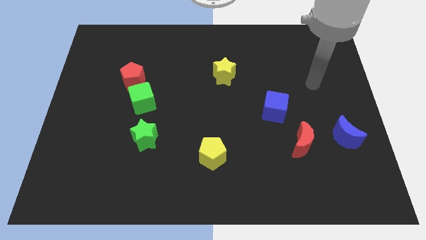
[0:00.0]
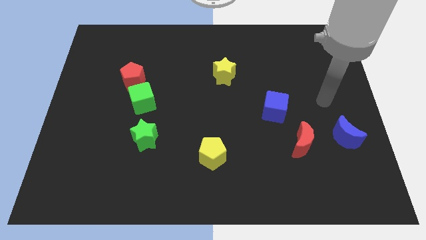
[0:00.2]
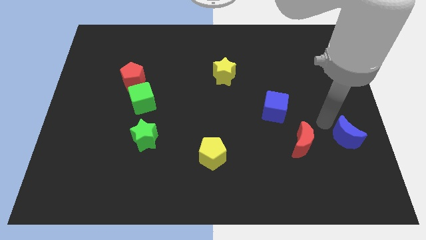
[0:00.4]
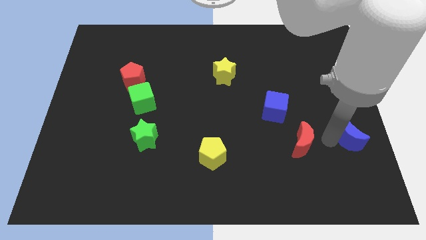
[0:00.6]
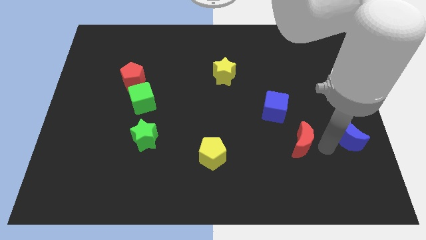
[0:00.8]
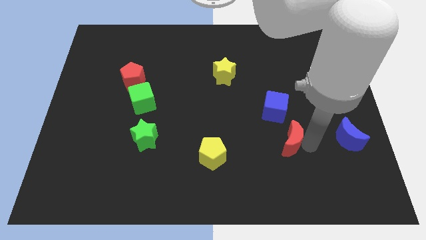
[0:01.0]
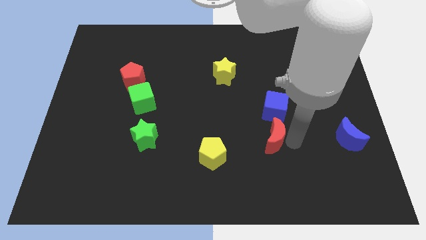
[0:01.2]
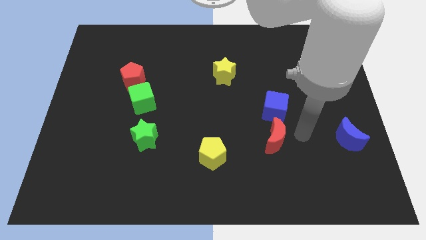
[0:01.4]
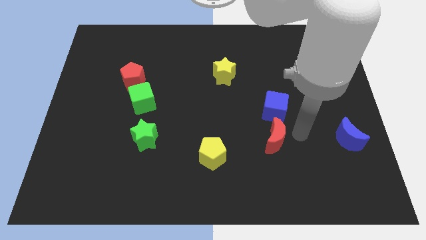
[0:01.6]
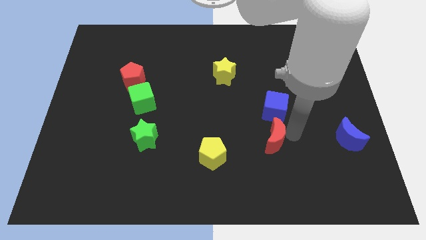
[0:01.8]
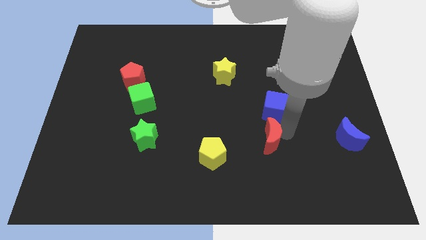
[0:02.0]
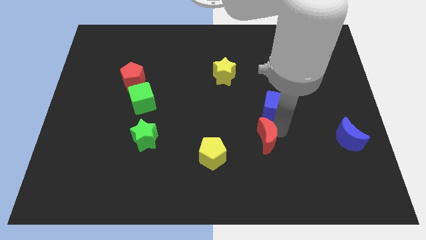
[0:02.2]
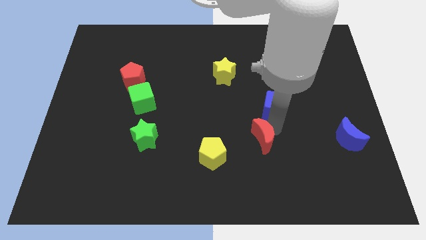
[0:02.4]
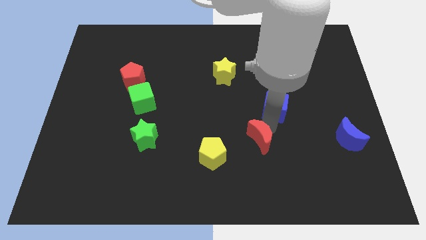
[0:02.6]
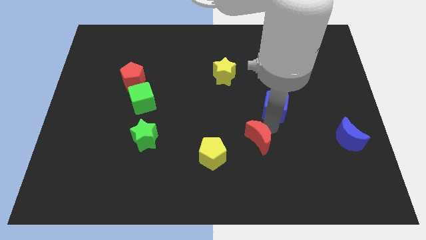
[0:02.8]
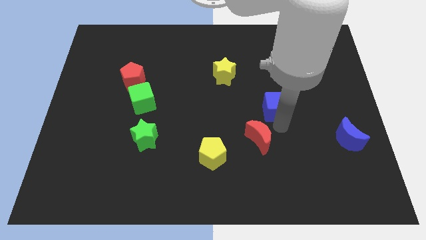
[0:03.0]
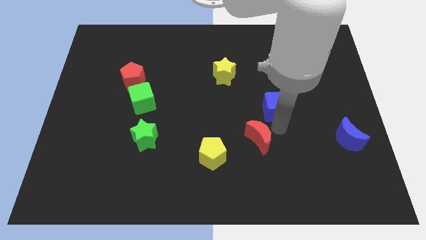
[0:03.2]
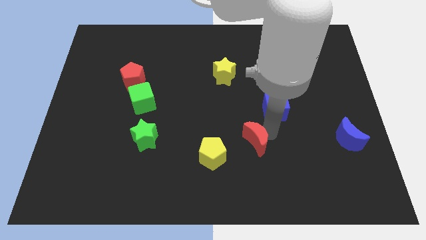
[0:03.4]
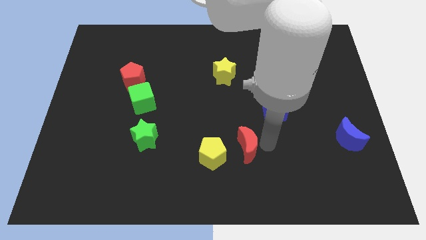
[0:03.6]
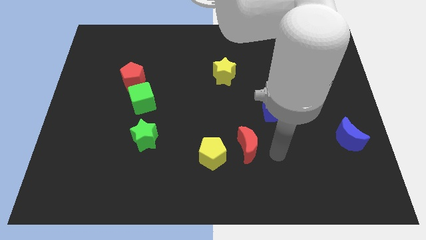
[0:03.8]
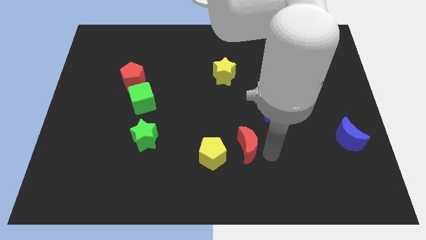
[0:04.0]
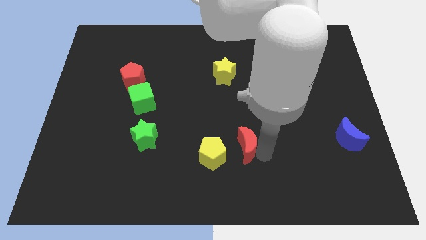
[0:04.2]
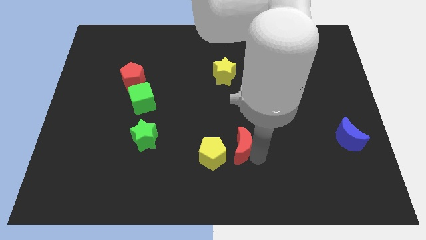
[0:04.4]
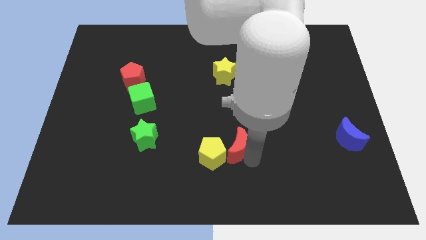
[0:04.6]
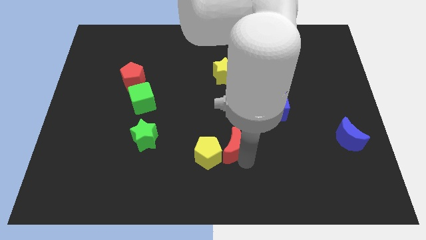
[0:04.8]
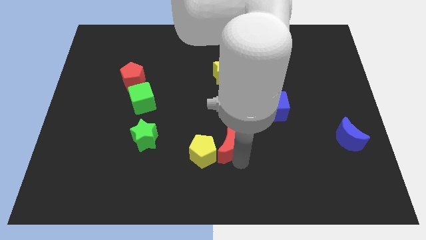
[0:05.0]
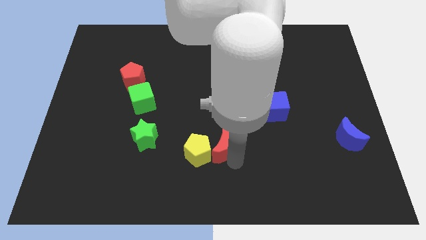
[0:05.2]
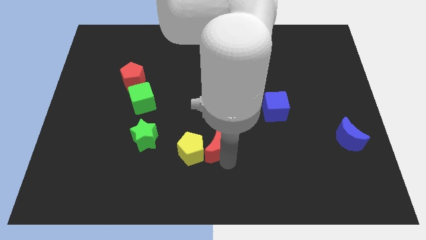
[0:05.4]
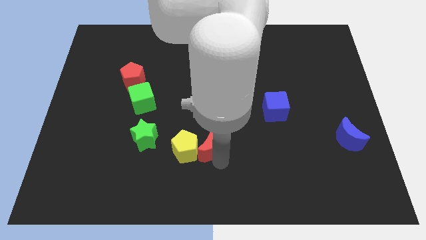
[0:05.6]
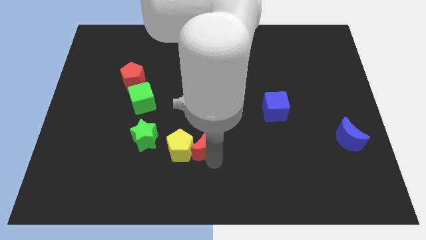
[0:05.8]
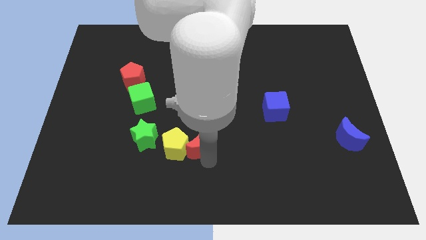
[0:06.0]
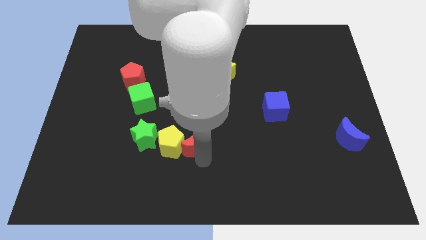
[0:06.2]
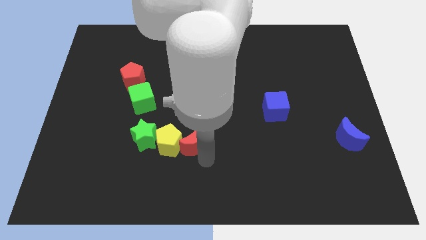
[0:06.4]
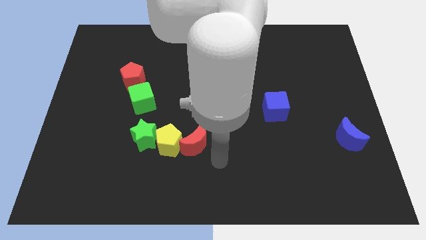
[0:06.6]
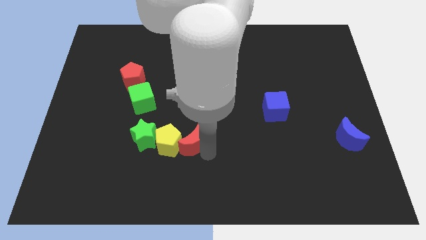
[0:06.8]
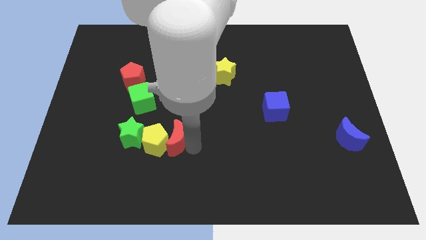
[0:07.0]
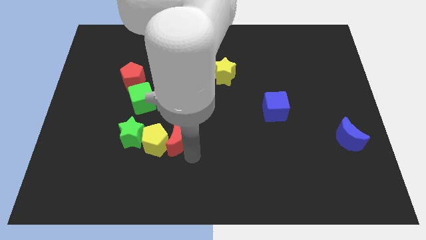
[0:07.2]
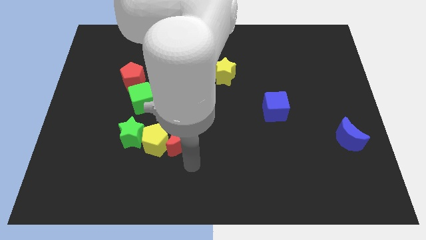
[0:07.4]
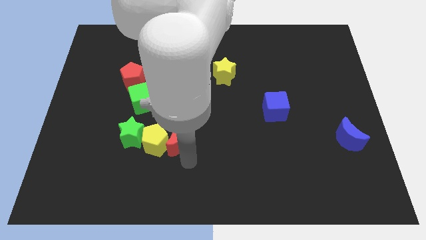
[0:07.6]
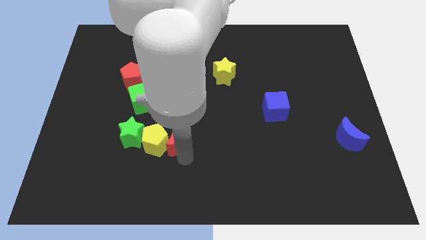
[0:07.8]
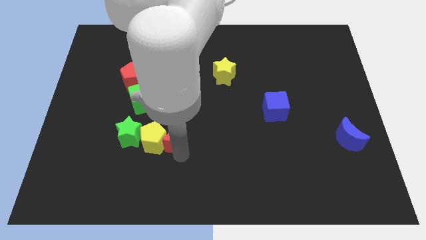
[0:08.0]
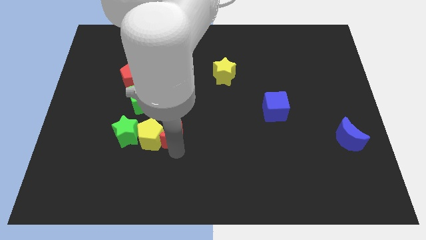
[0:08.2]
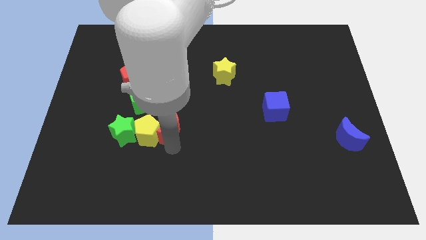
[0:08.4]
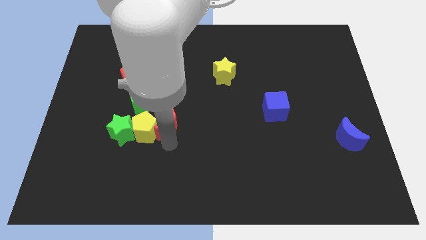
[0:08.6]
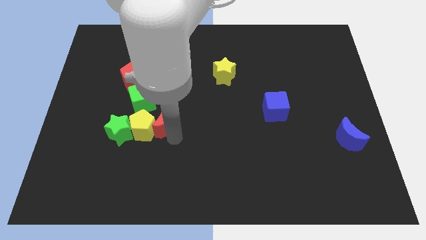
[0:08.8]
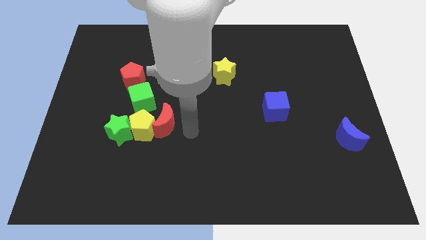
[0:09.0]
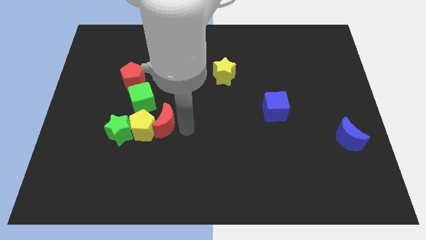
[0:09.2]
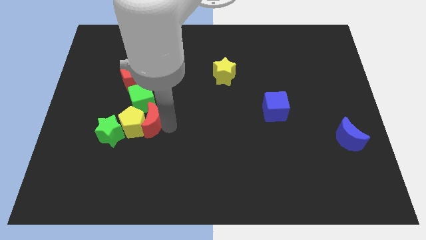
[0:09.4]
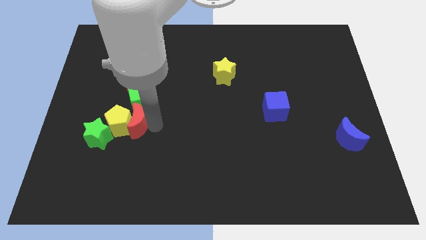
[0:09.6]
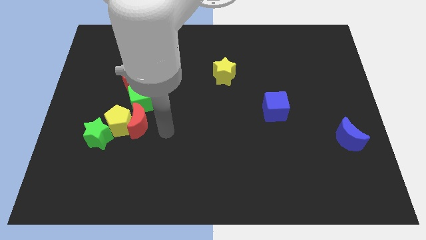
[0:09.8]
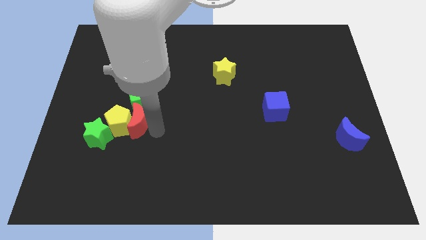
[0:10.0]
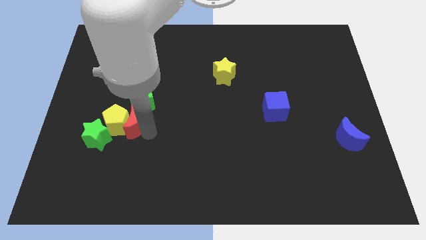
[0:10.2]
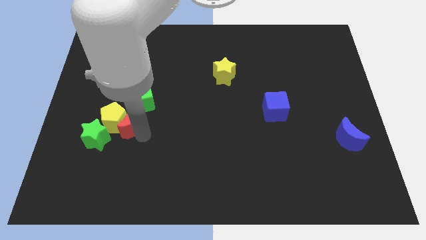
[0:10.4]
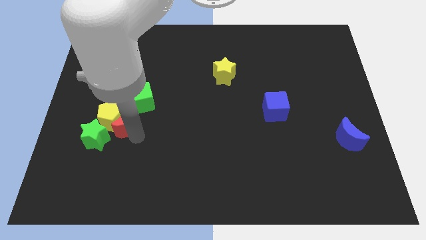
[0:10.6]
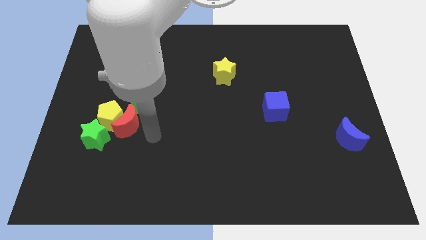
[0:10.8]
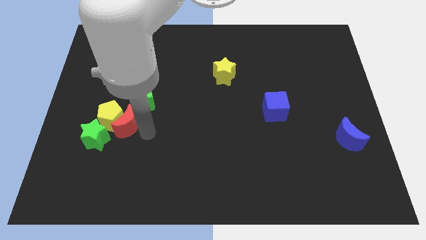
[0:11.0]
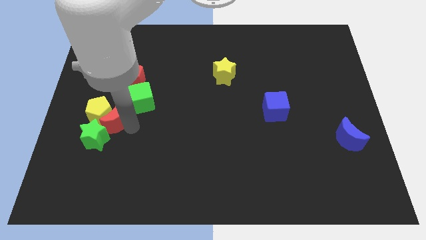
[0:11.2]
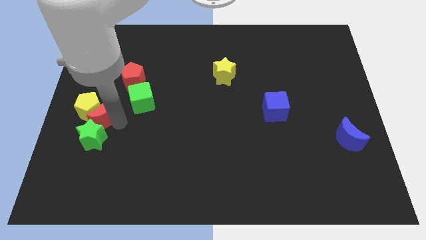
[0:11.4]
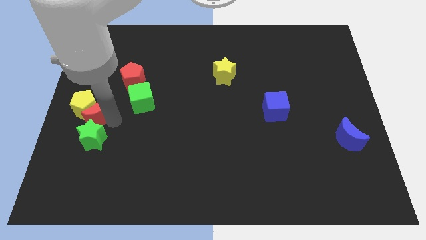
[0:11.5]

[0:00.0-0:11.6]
move the red moon to the left side of the board

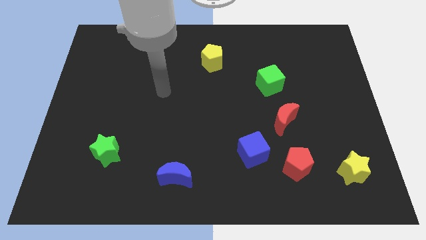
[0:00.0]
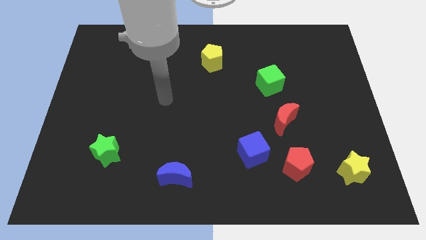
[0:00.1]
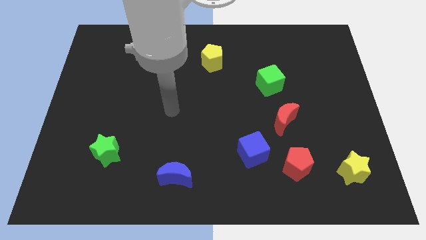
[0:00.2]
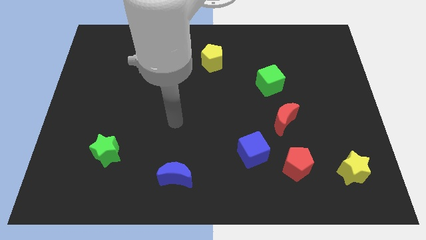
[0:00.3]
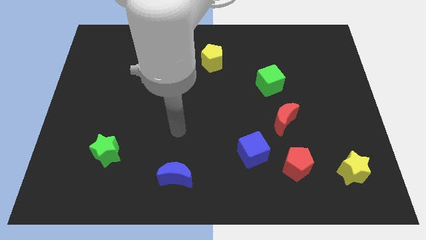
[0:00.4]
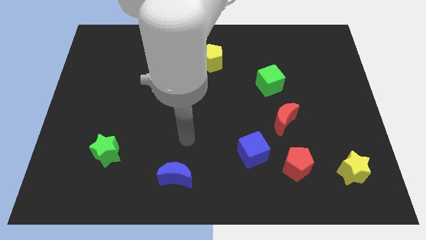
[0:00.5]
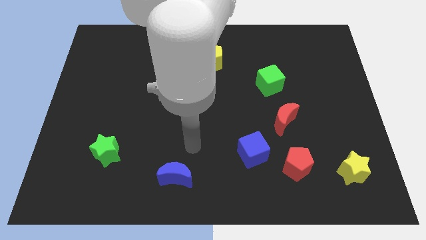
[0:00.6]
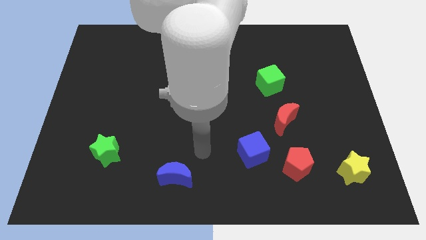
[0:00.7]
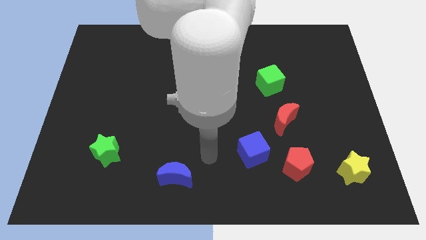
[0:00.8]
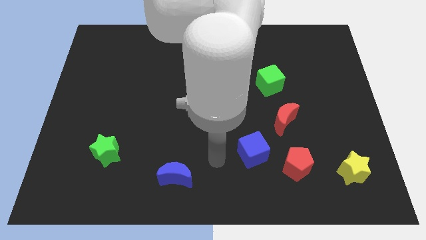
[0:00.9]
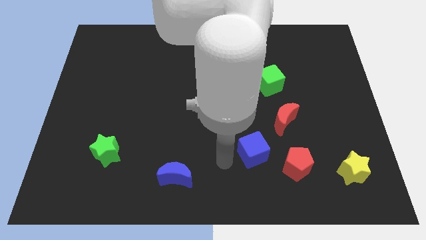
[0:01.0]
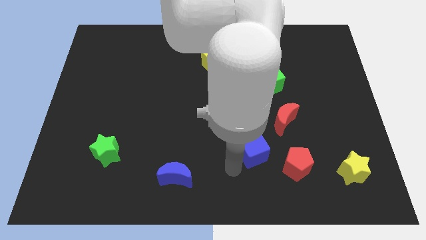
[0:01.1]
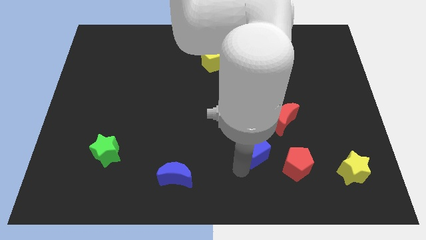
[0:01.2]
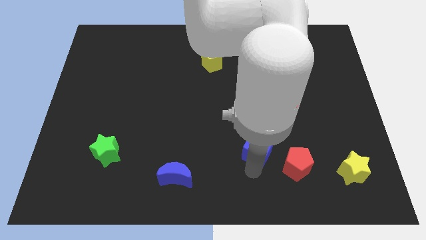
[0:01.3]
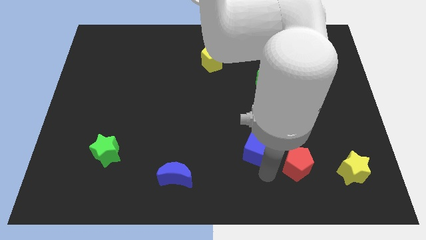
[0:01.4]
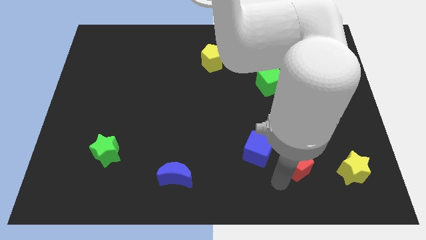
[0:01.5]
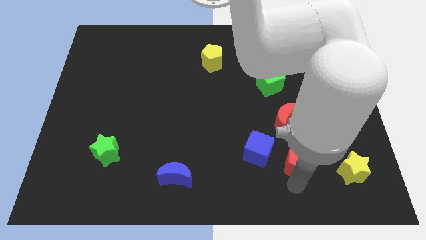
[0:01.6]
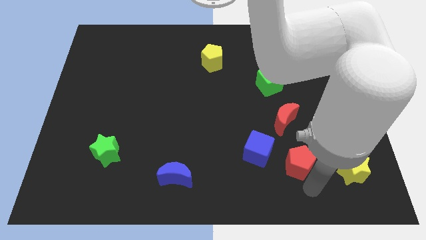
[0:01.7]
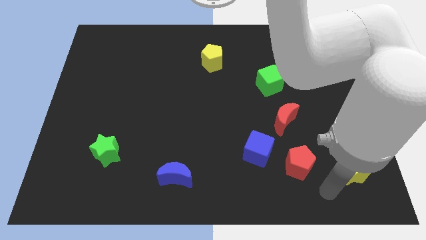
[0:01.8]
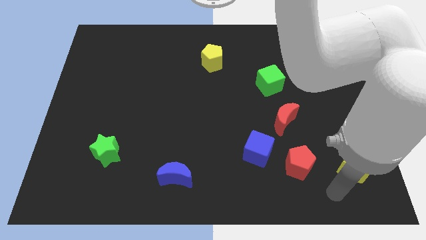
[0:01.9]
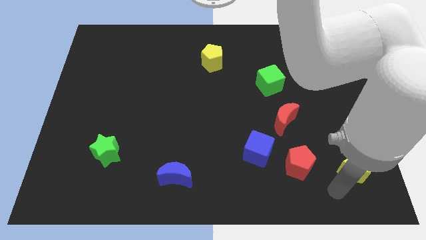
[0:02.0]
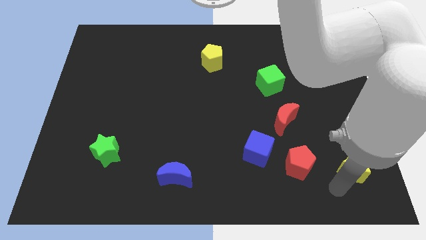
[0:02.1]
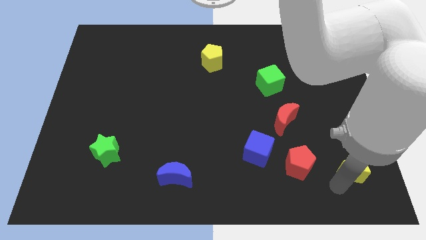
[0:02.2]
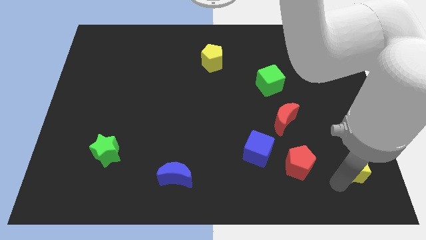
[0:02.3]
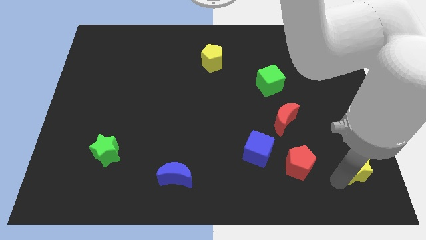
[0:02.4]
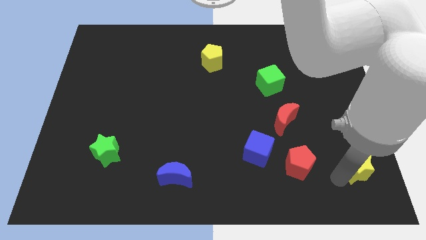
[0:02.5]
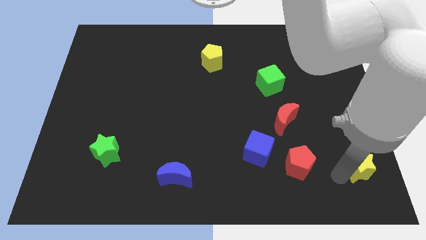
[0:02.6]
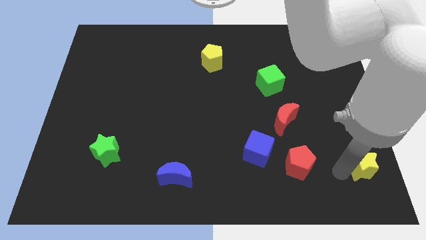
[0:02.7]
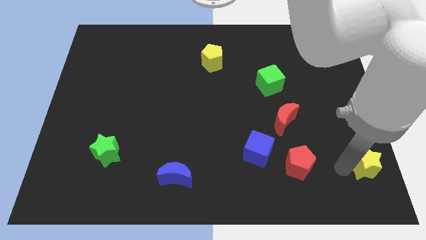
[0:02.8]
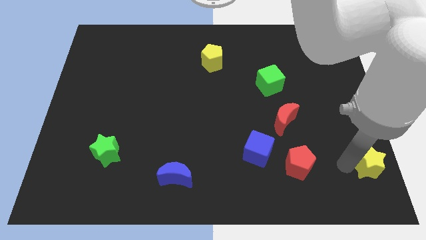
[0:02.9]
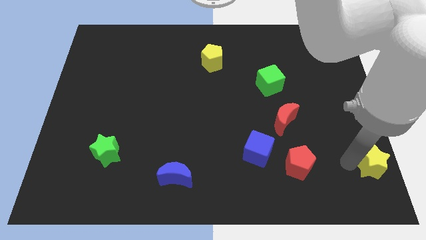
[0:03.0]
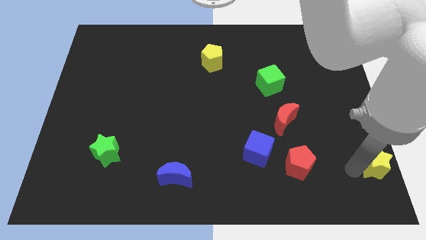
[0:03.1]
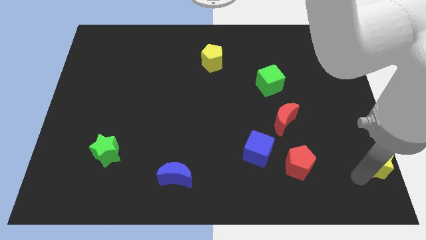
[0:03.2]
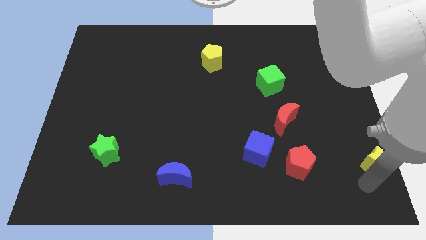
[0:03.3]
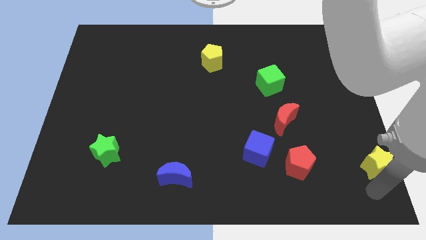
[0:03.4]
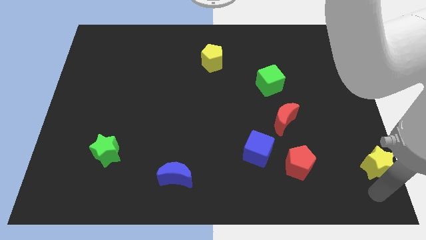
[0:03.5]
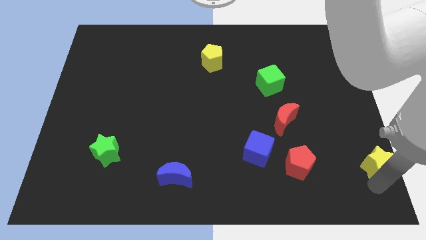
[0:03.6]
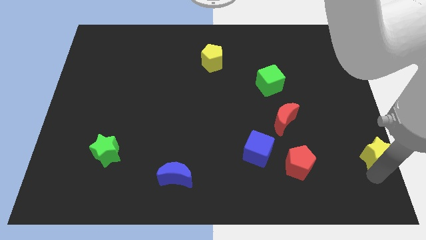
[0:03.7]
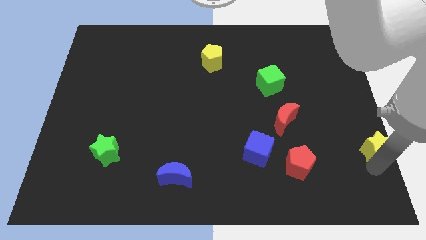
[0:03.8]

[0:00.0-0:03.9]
slide the yellow star to the center right
